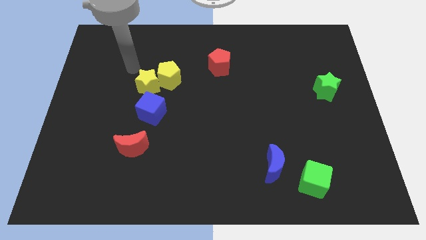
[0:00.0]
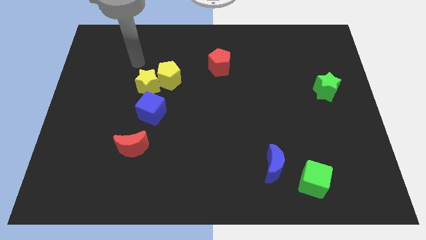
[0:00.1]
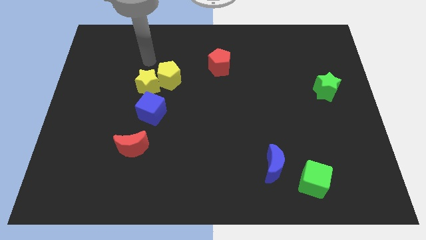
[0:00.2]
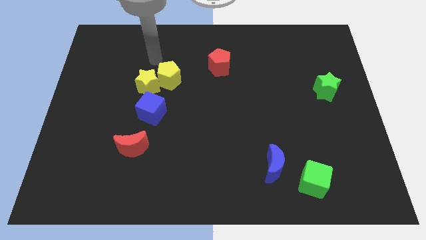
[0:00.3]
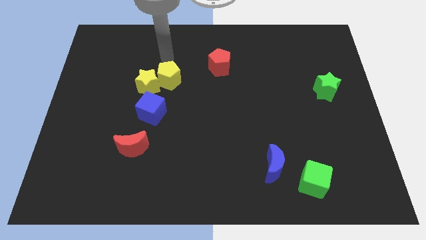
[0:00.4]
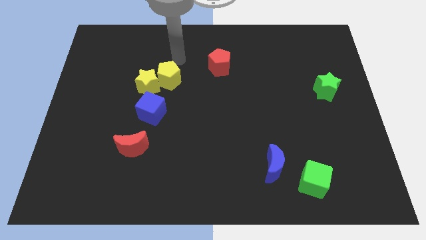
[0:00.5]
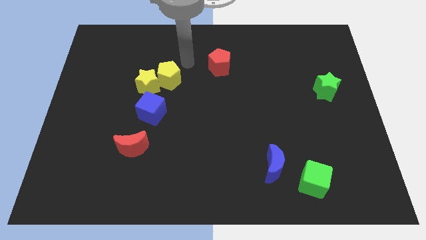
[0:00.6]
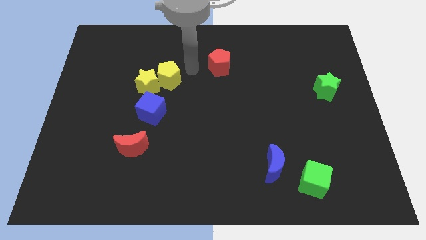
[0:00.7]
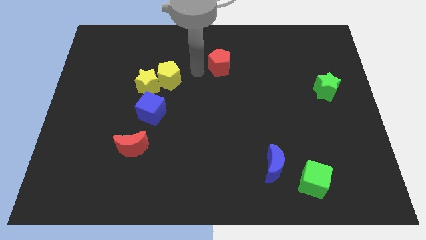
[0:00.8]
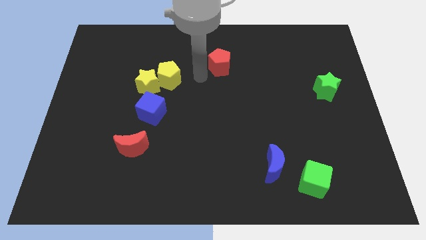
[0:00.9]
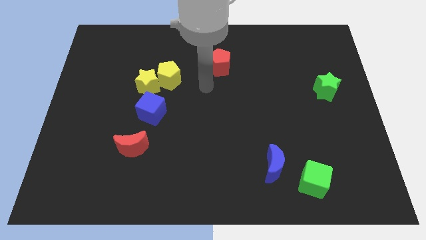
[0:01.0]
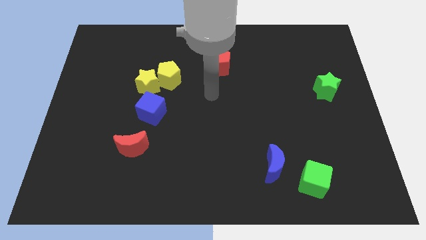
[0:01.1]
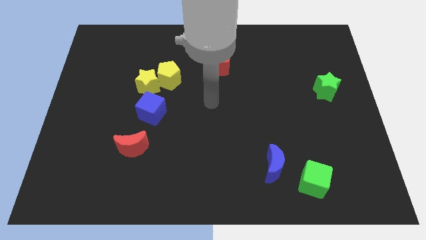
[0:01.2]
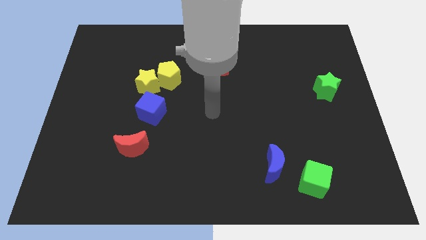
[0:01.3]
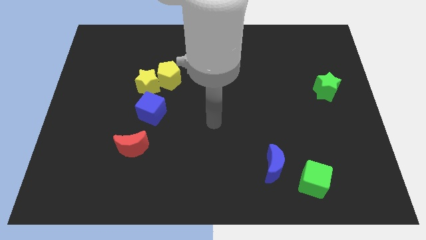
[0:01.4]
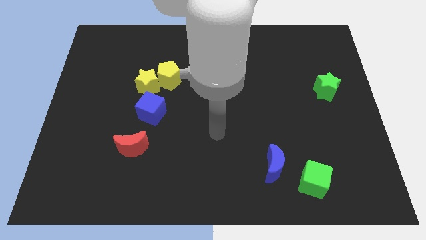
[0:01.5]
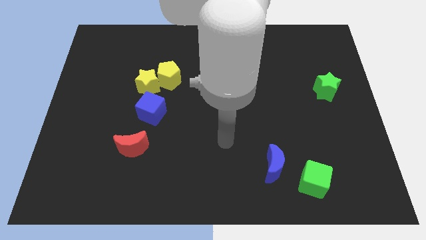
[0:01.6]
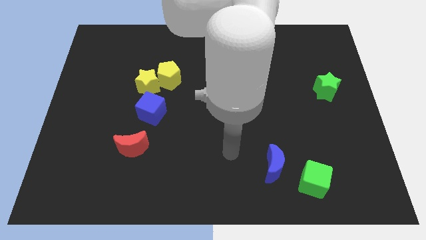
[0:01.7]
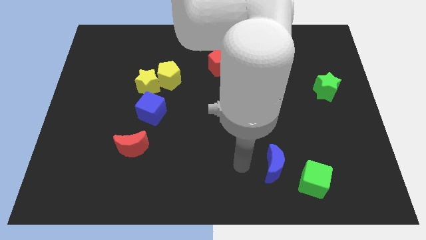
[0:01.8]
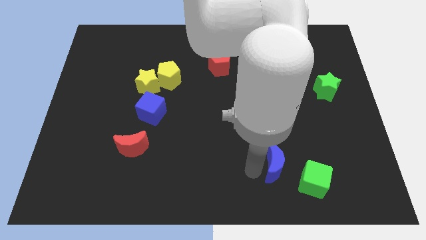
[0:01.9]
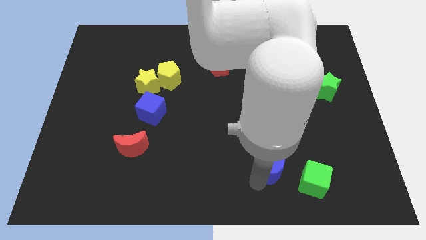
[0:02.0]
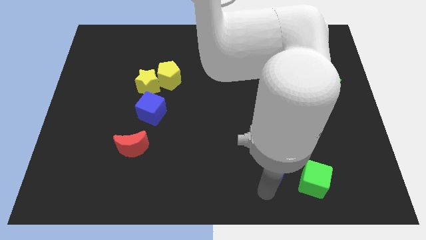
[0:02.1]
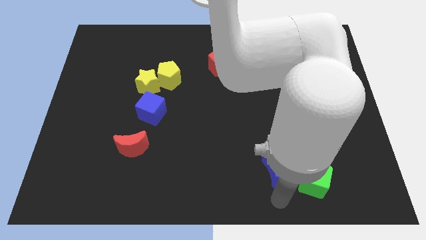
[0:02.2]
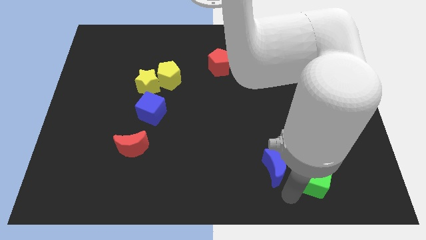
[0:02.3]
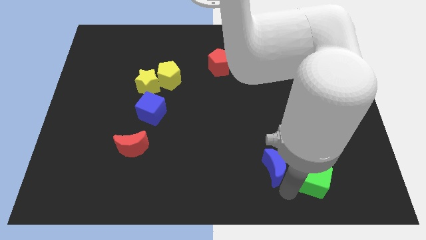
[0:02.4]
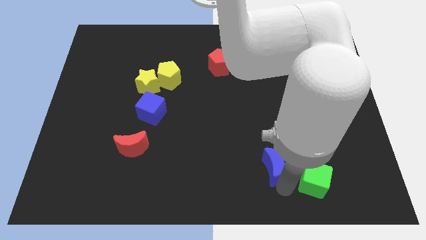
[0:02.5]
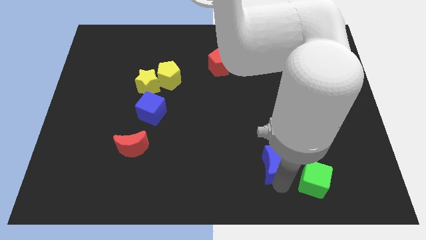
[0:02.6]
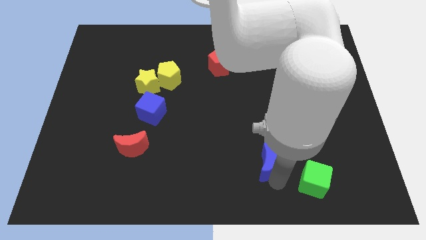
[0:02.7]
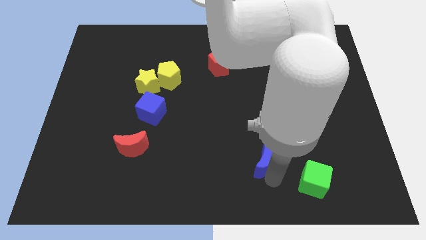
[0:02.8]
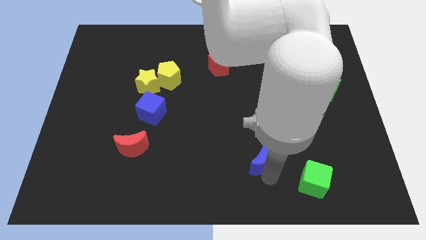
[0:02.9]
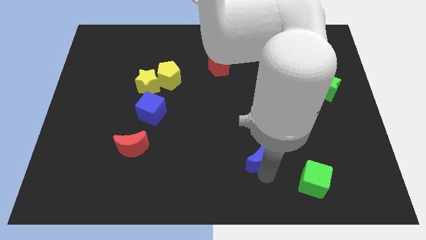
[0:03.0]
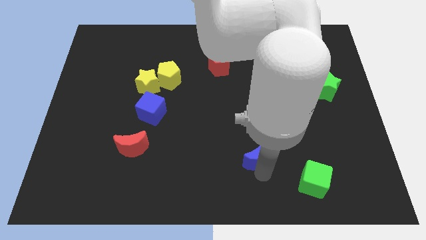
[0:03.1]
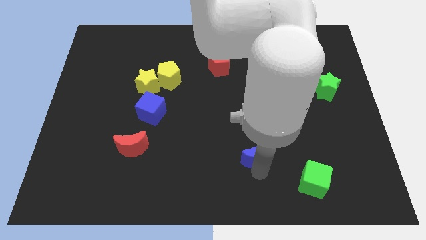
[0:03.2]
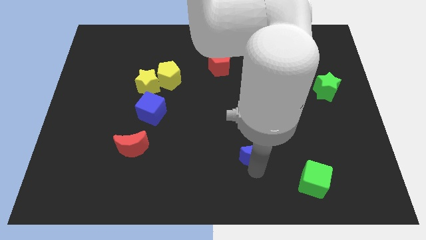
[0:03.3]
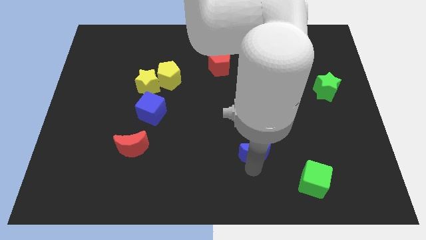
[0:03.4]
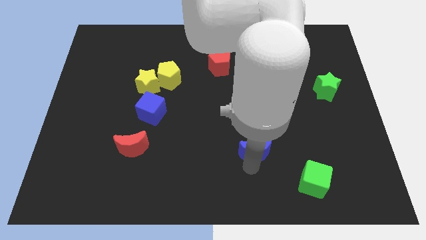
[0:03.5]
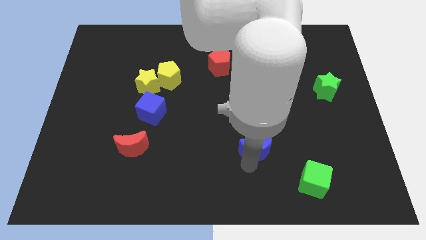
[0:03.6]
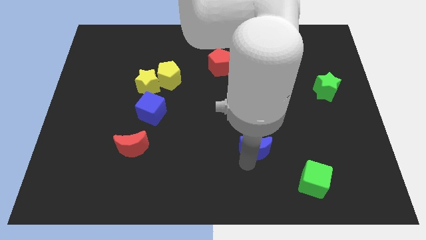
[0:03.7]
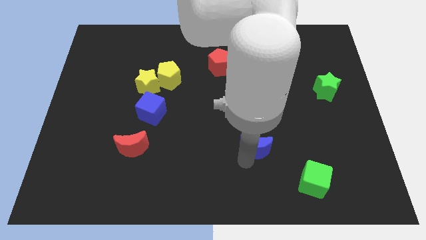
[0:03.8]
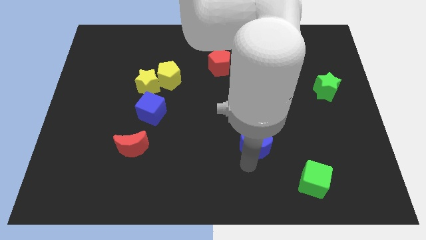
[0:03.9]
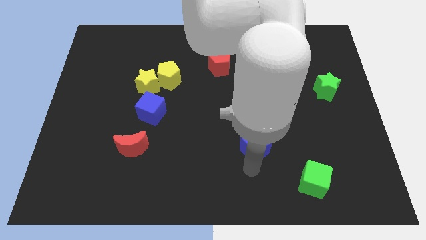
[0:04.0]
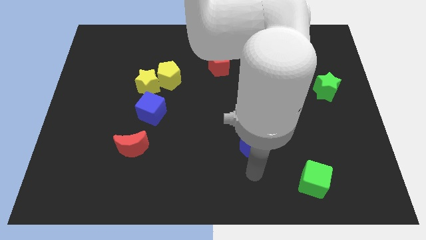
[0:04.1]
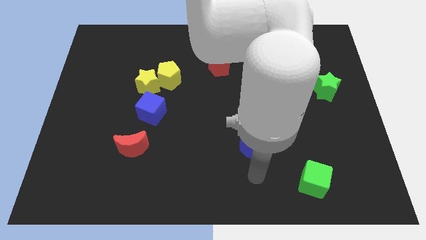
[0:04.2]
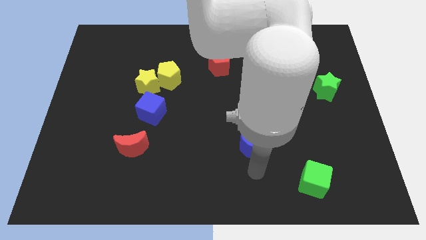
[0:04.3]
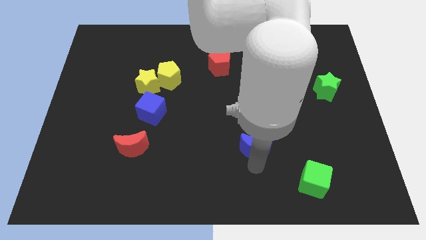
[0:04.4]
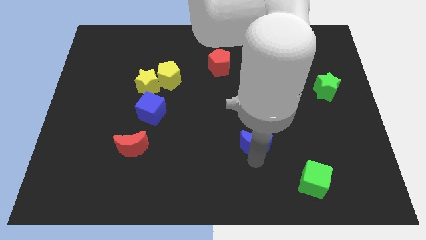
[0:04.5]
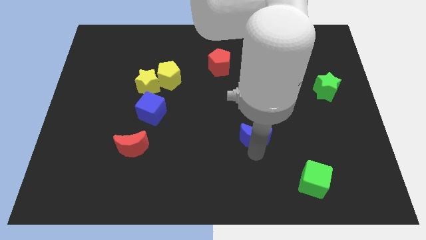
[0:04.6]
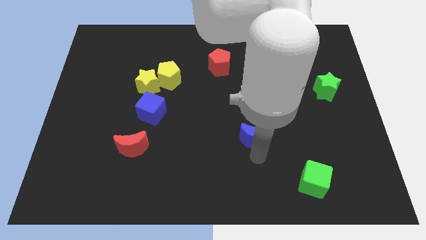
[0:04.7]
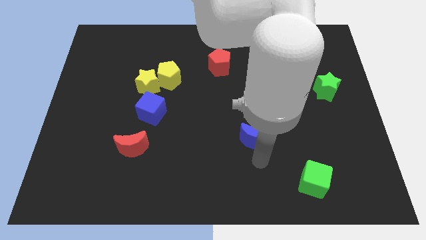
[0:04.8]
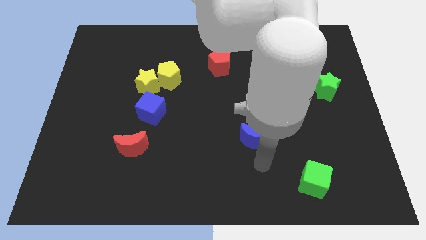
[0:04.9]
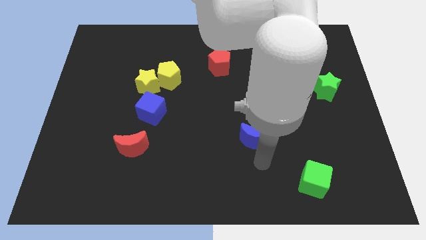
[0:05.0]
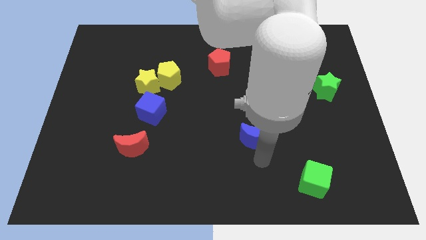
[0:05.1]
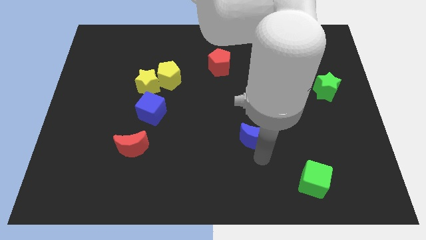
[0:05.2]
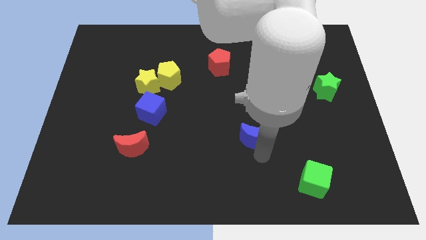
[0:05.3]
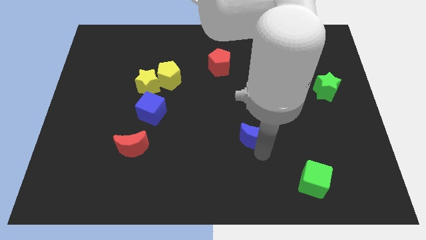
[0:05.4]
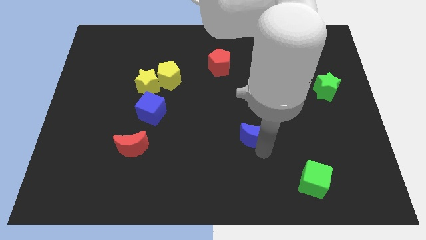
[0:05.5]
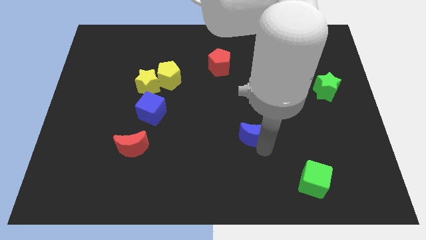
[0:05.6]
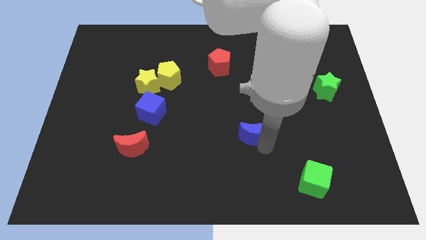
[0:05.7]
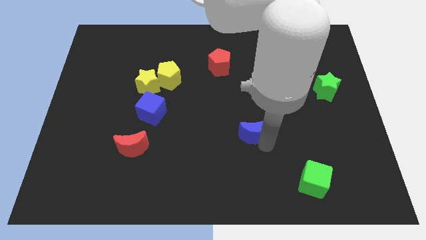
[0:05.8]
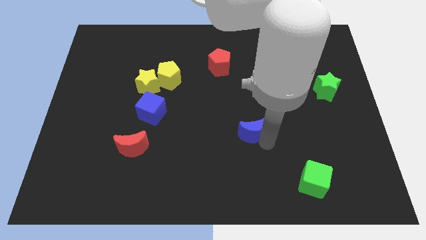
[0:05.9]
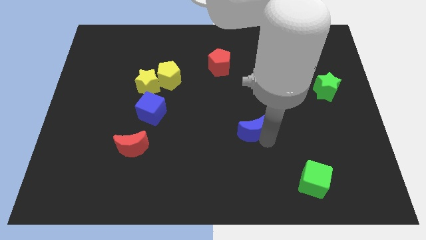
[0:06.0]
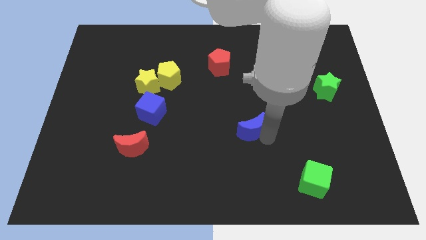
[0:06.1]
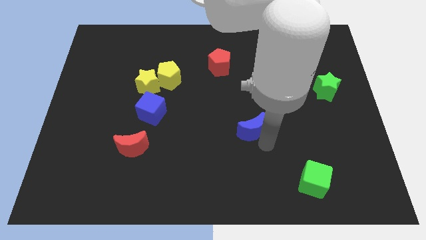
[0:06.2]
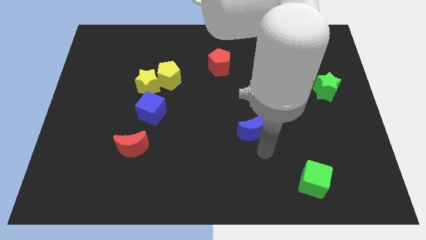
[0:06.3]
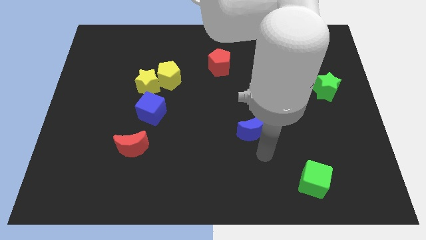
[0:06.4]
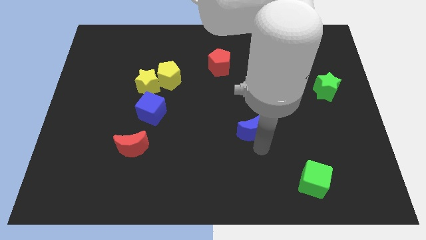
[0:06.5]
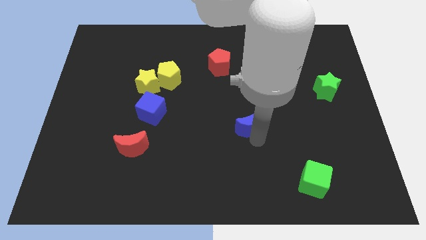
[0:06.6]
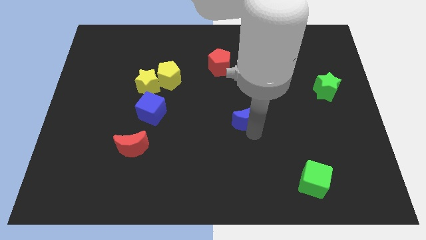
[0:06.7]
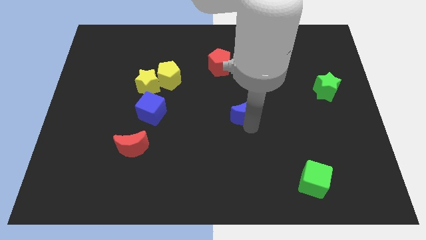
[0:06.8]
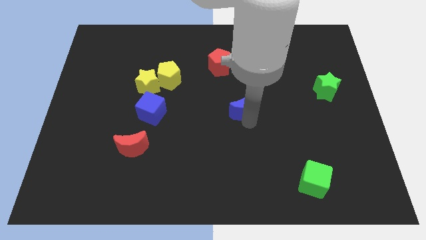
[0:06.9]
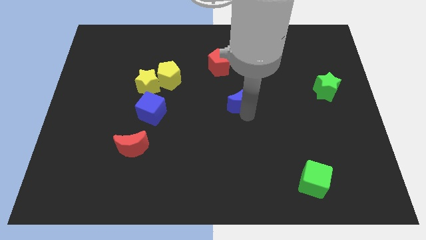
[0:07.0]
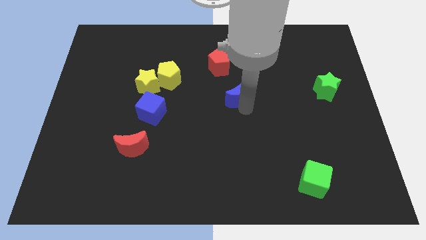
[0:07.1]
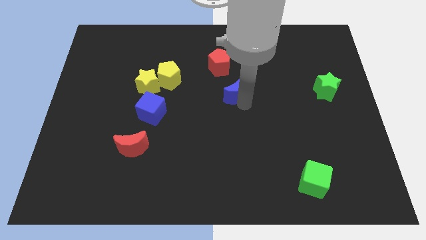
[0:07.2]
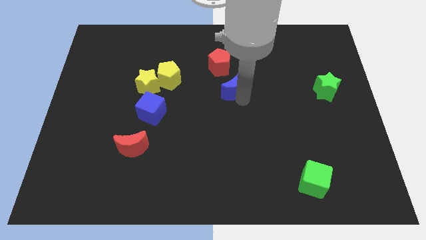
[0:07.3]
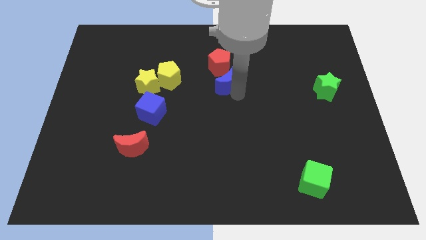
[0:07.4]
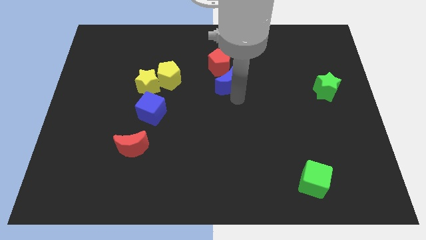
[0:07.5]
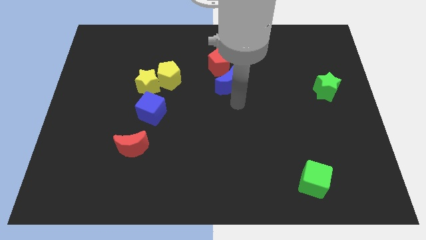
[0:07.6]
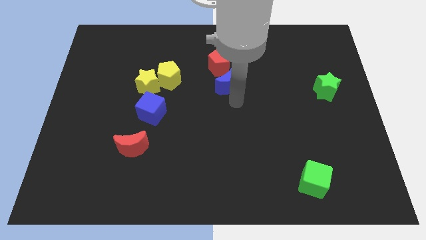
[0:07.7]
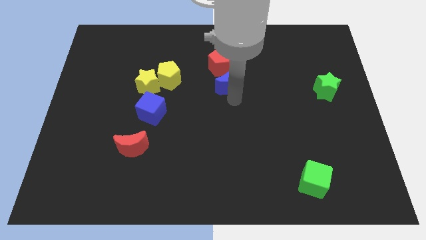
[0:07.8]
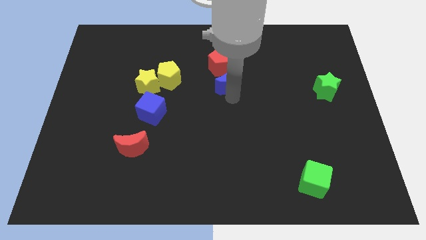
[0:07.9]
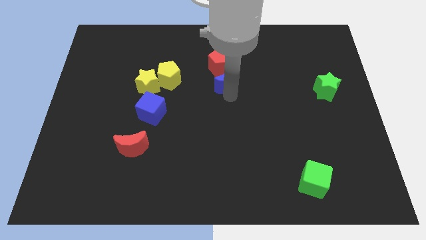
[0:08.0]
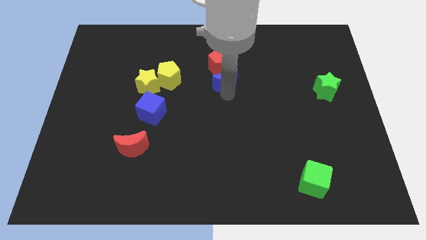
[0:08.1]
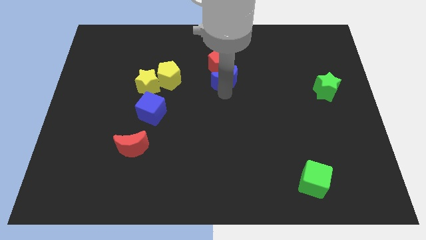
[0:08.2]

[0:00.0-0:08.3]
put the blue moon close to the red pentagon
